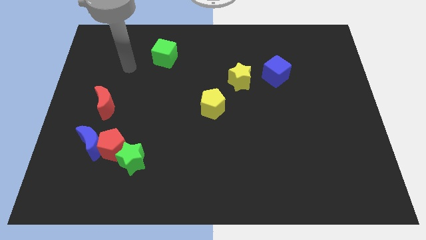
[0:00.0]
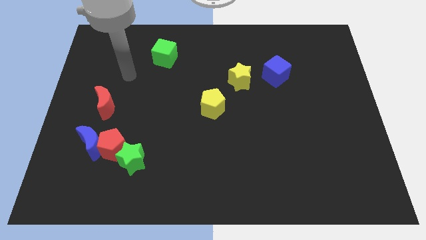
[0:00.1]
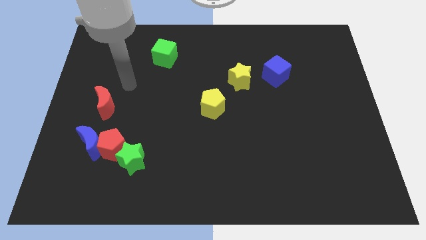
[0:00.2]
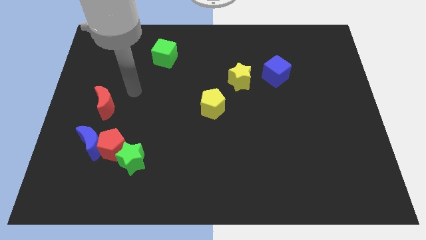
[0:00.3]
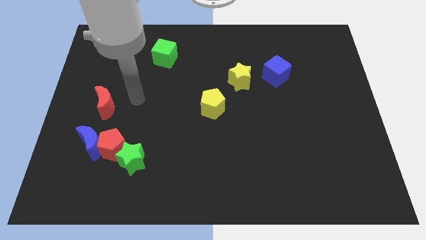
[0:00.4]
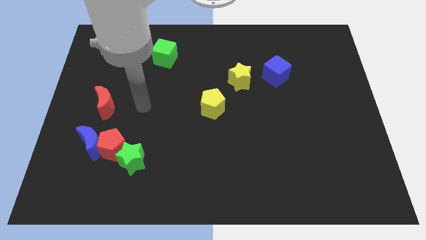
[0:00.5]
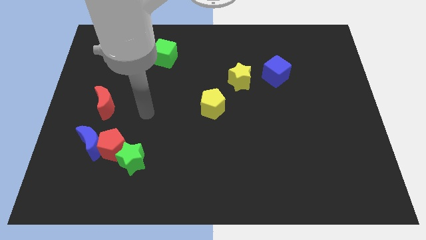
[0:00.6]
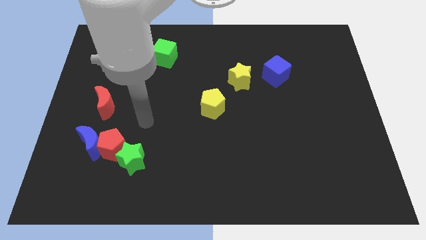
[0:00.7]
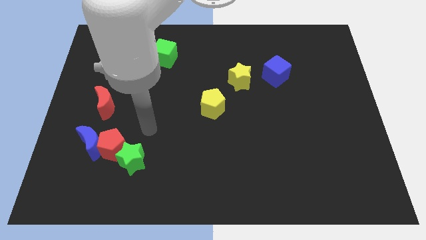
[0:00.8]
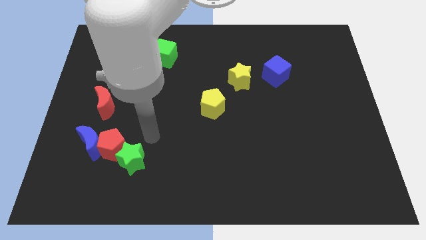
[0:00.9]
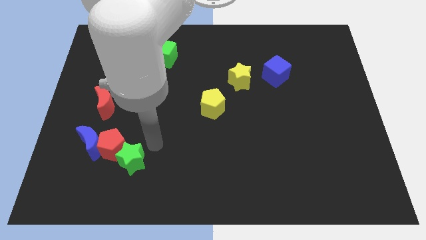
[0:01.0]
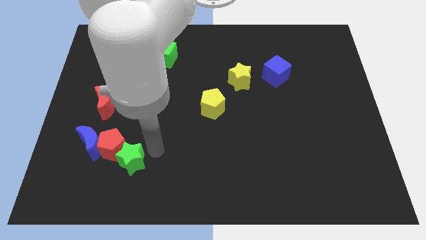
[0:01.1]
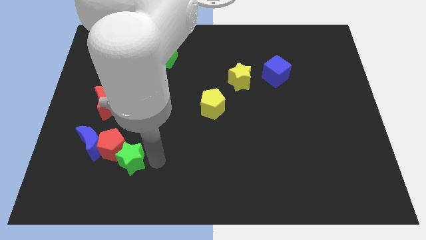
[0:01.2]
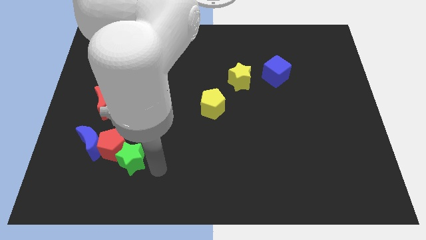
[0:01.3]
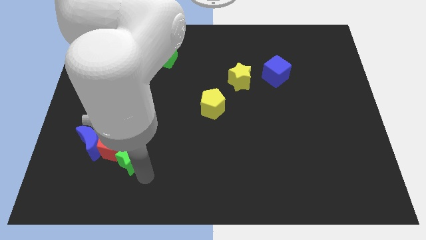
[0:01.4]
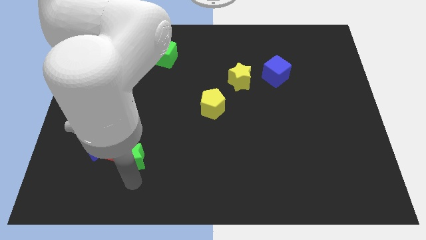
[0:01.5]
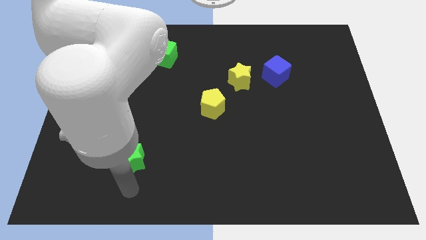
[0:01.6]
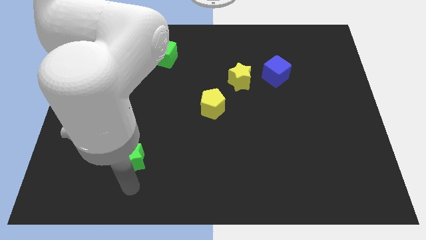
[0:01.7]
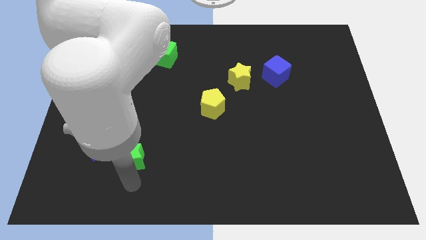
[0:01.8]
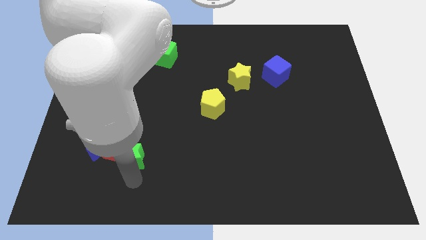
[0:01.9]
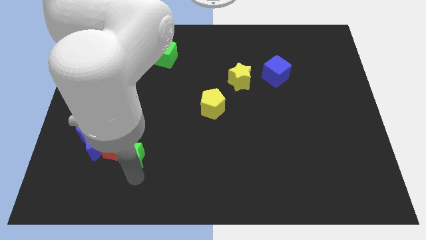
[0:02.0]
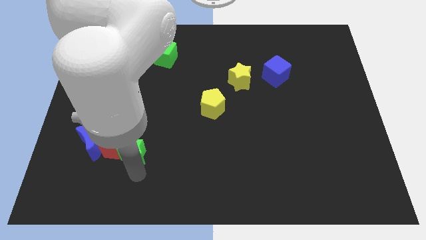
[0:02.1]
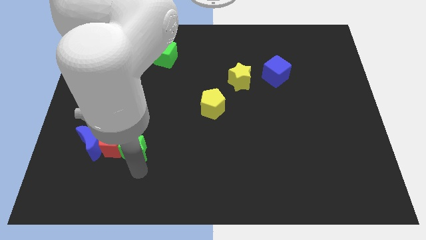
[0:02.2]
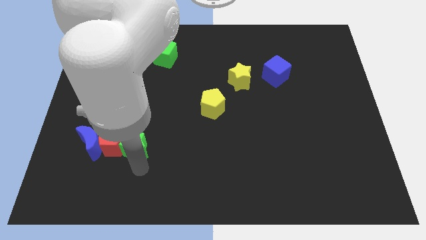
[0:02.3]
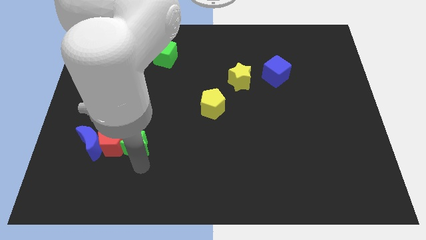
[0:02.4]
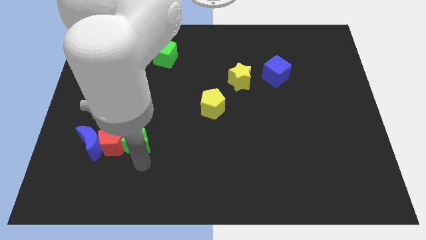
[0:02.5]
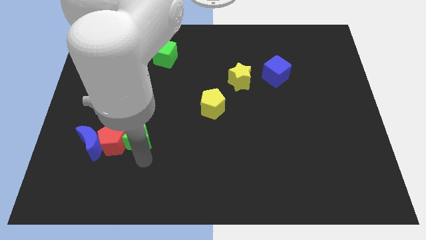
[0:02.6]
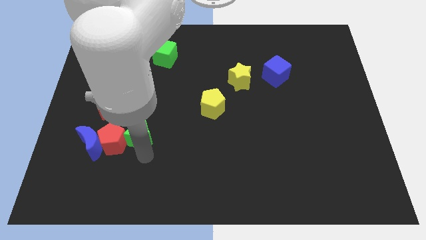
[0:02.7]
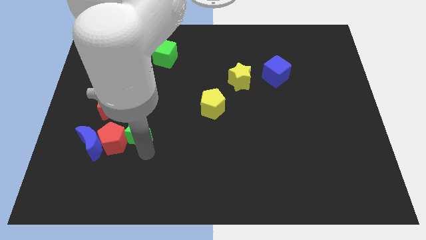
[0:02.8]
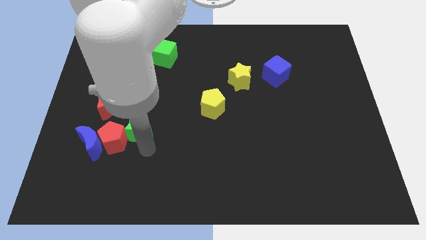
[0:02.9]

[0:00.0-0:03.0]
push the green star up slightly

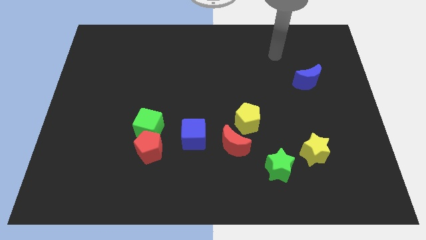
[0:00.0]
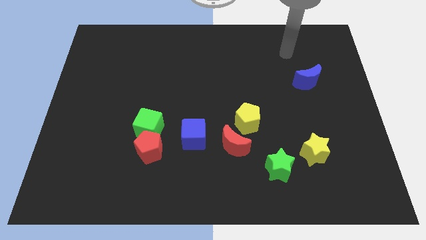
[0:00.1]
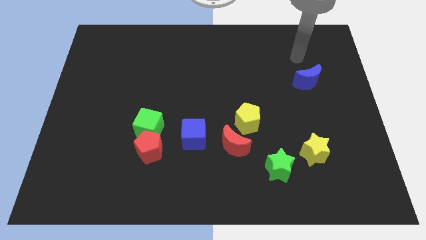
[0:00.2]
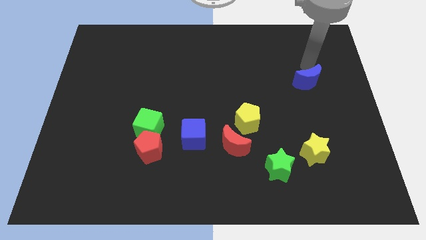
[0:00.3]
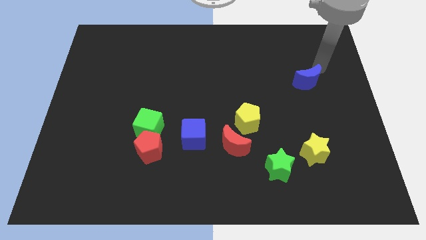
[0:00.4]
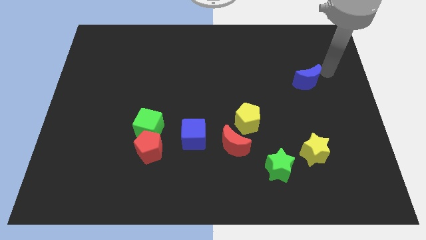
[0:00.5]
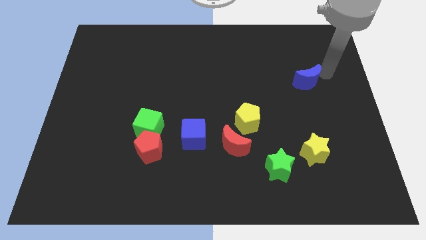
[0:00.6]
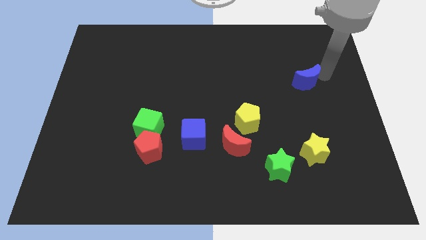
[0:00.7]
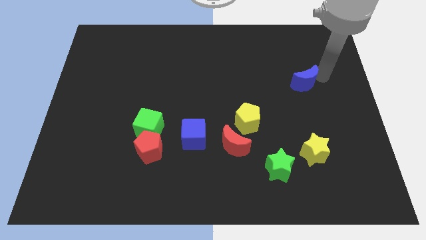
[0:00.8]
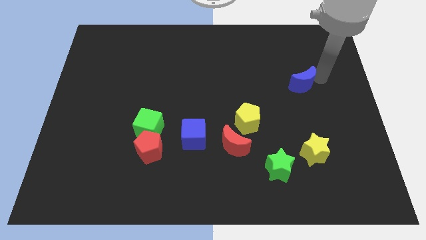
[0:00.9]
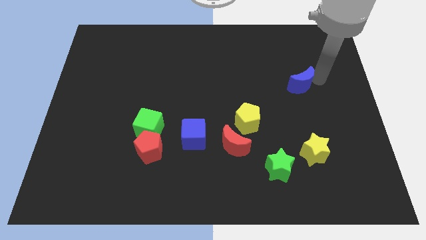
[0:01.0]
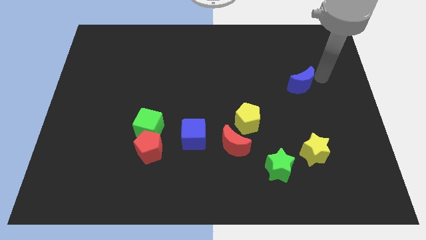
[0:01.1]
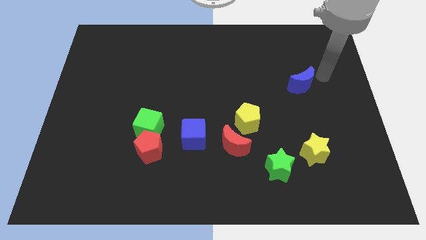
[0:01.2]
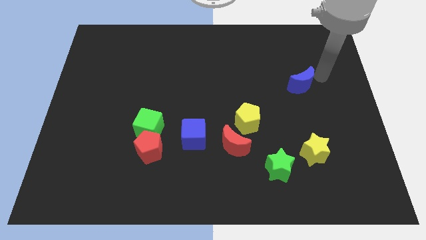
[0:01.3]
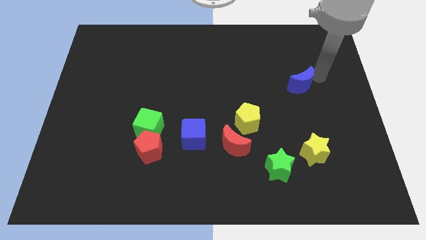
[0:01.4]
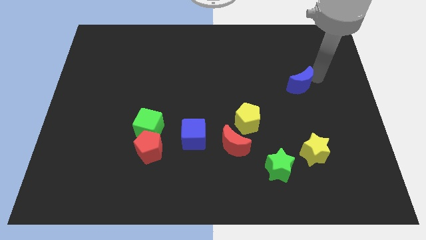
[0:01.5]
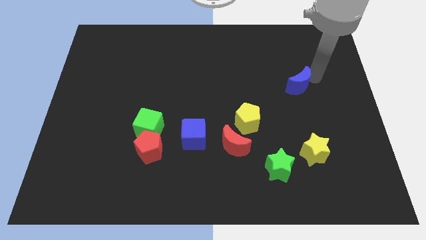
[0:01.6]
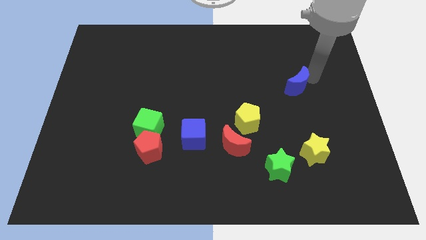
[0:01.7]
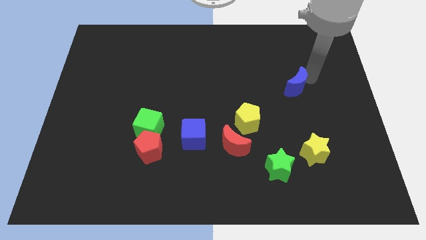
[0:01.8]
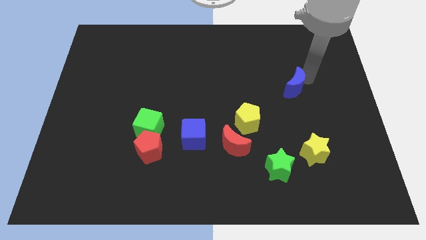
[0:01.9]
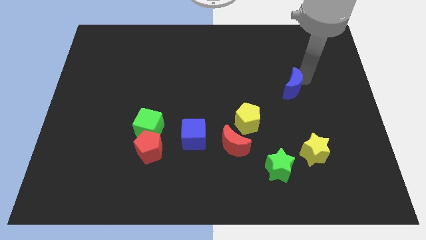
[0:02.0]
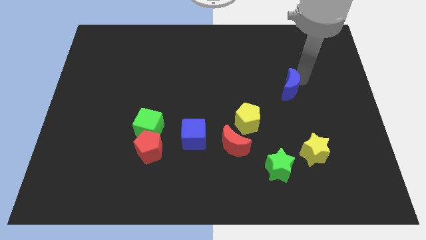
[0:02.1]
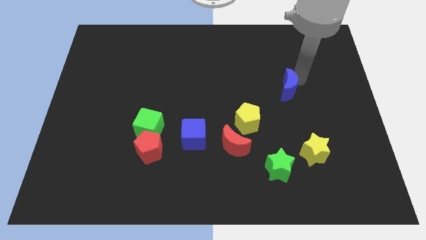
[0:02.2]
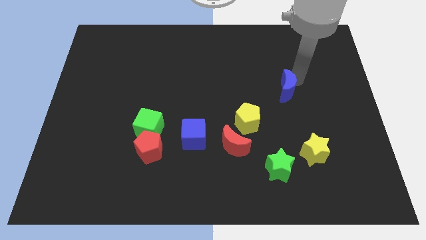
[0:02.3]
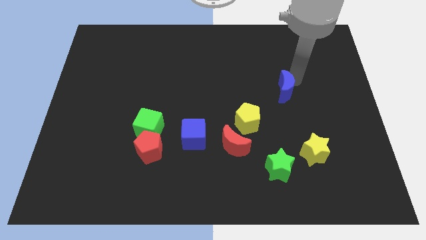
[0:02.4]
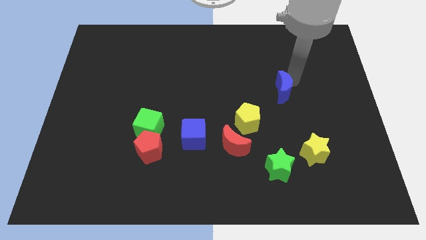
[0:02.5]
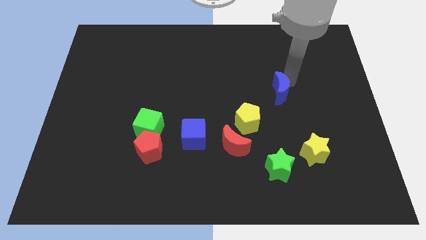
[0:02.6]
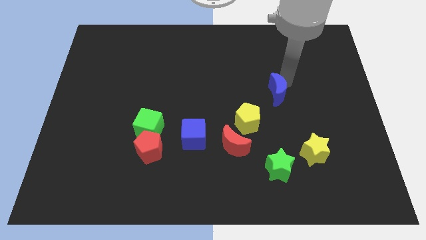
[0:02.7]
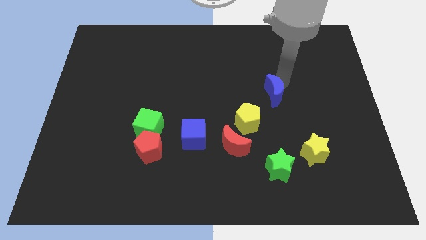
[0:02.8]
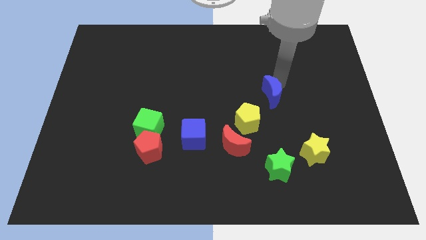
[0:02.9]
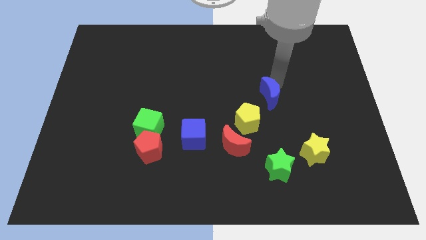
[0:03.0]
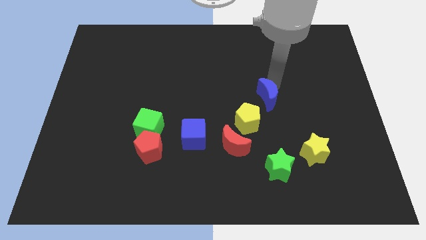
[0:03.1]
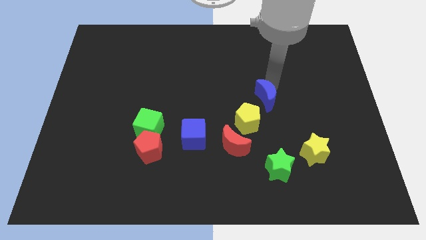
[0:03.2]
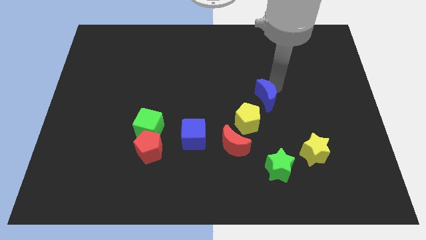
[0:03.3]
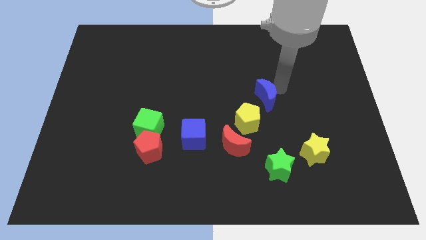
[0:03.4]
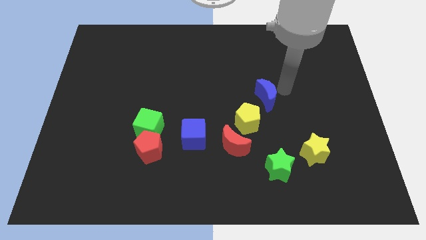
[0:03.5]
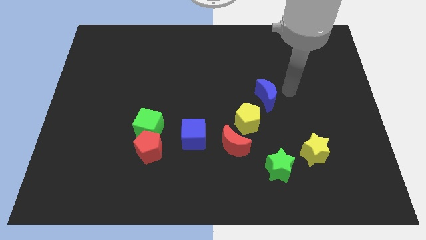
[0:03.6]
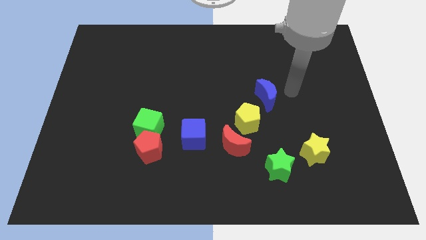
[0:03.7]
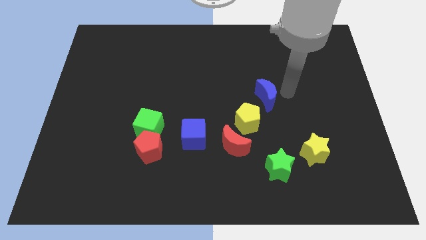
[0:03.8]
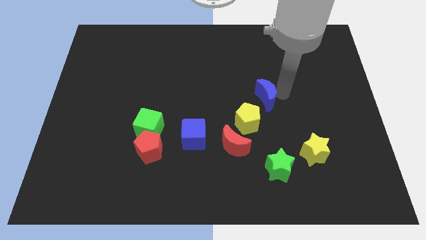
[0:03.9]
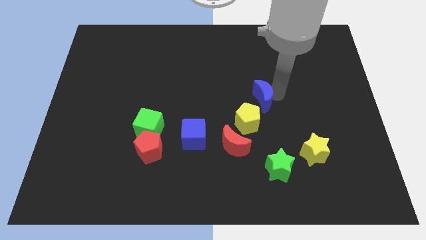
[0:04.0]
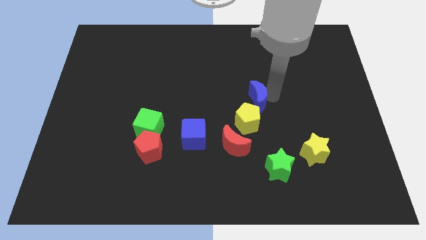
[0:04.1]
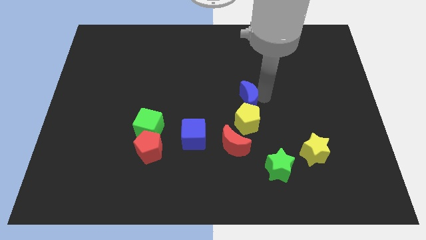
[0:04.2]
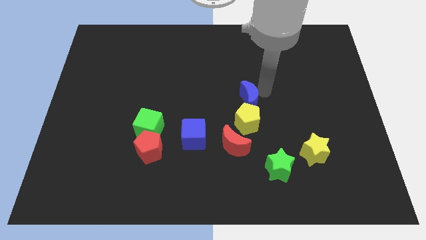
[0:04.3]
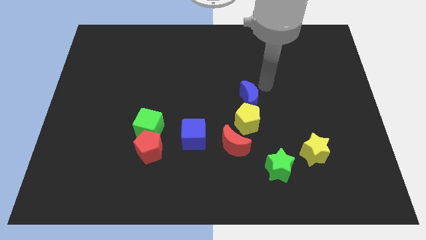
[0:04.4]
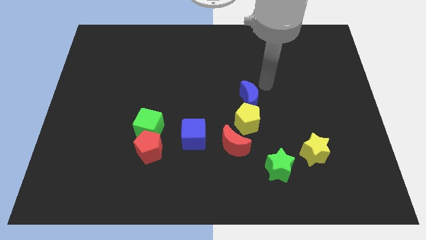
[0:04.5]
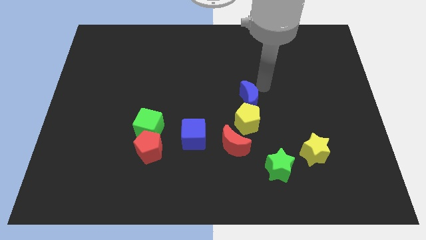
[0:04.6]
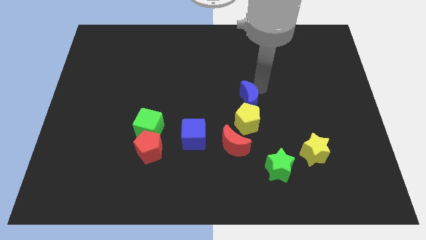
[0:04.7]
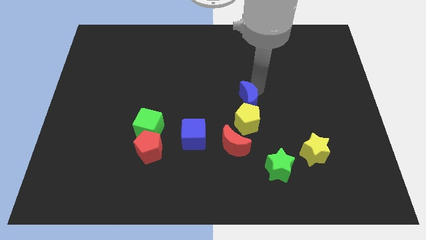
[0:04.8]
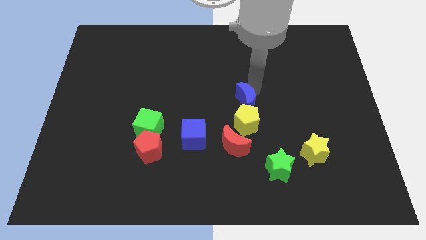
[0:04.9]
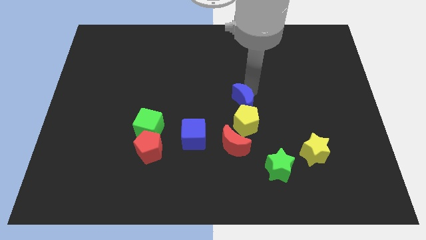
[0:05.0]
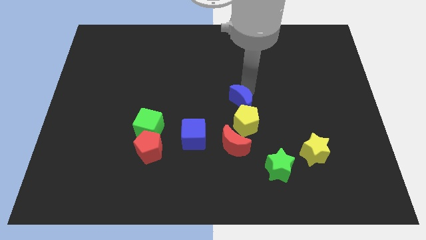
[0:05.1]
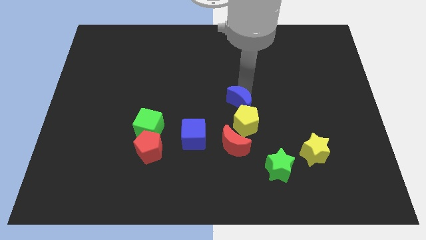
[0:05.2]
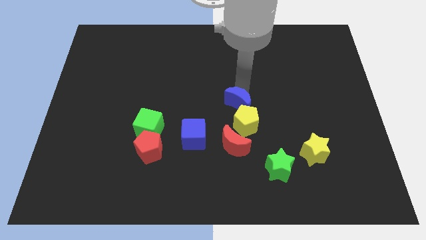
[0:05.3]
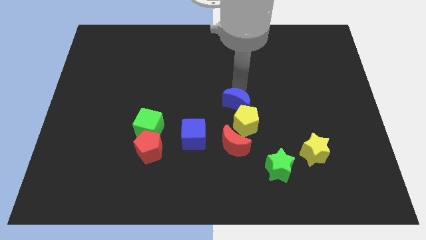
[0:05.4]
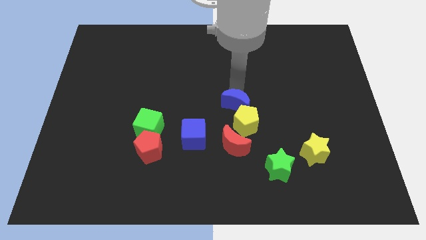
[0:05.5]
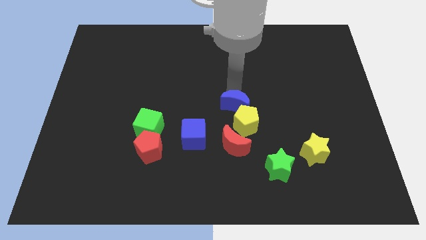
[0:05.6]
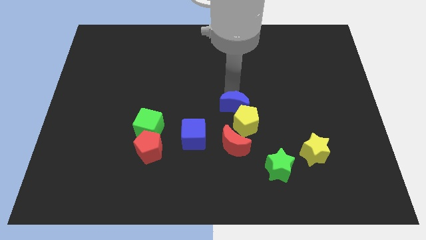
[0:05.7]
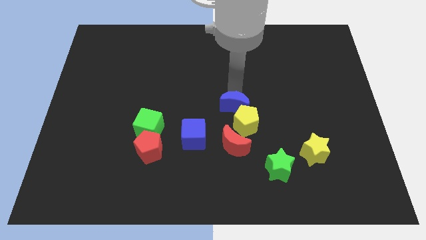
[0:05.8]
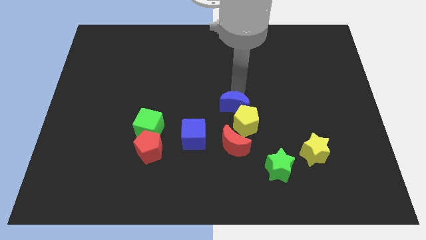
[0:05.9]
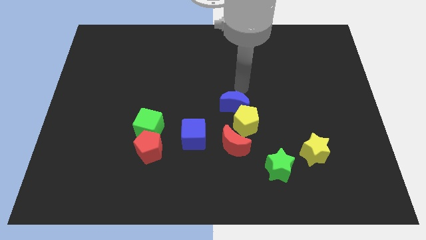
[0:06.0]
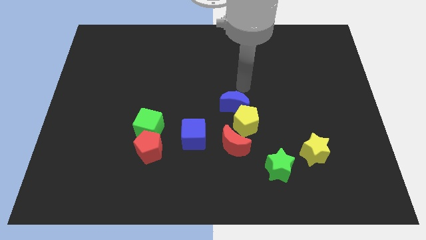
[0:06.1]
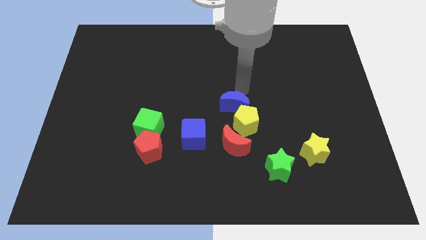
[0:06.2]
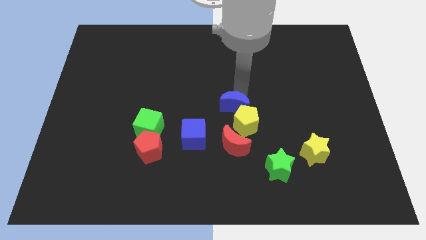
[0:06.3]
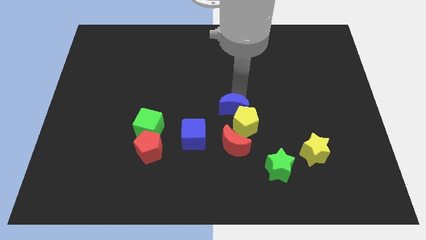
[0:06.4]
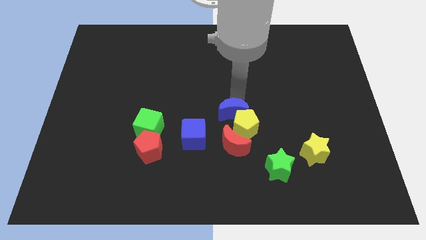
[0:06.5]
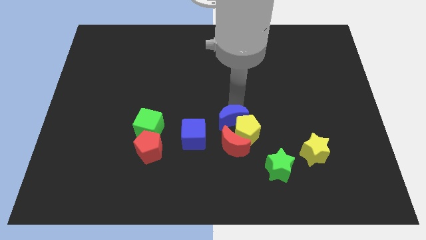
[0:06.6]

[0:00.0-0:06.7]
move the blue moon downwards and left diagonally
